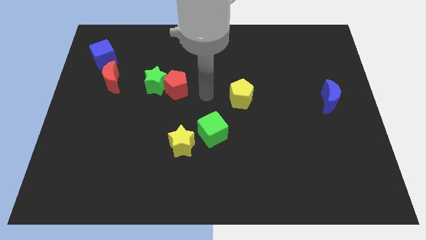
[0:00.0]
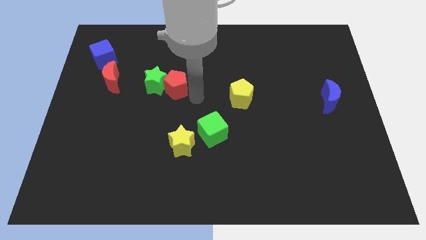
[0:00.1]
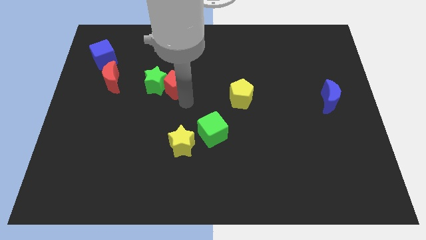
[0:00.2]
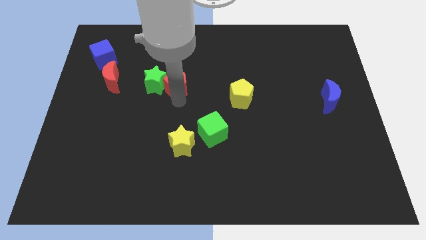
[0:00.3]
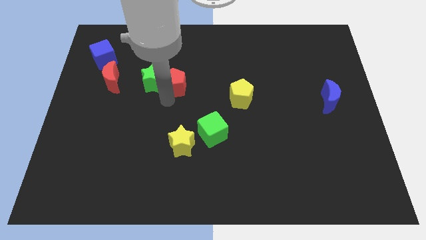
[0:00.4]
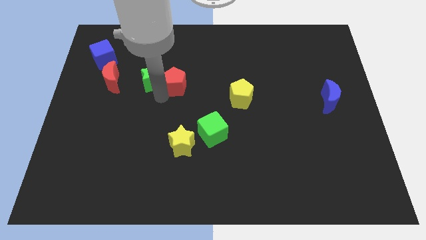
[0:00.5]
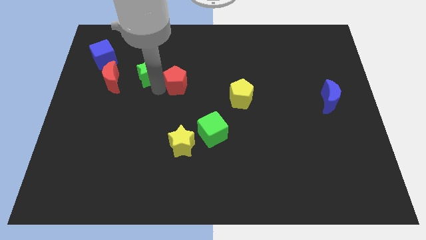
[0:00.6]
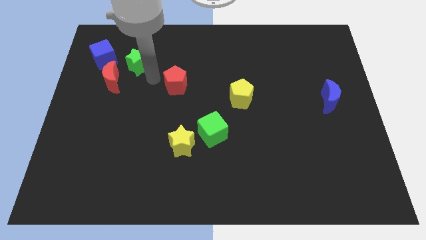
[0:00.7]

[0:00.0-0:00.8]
move the red pentagon away from the green star

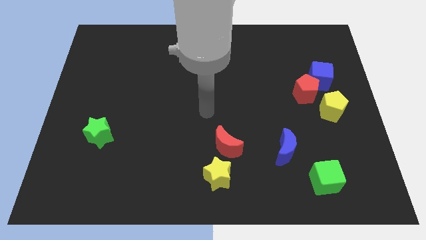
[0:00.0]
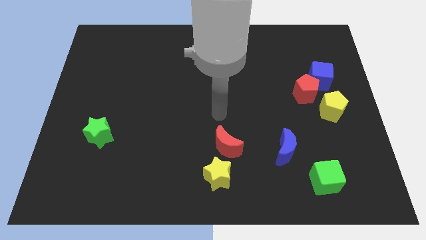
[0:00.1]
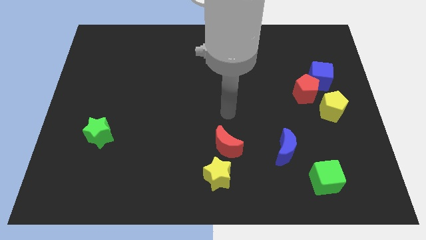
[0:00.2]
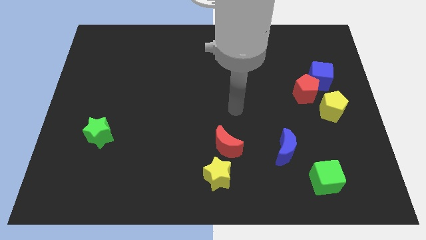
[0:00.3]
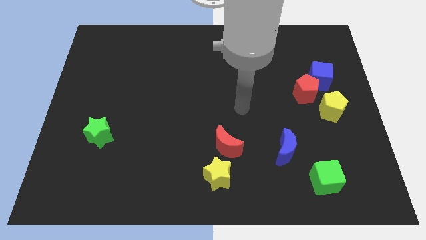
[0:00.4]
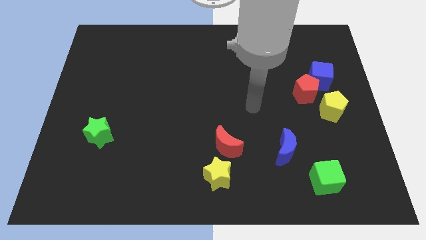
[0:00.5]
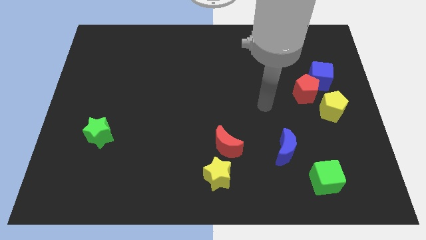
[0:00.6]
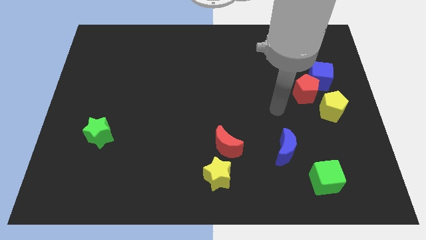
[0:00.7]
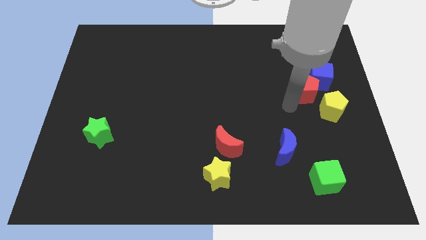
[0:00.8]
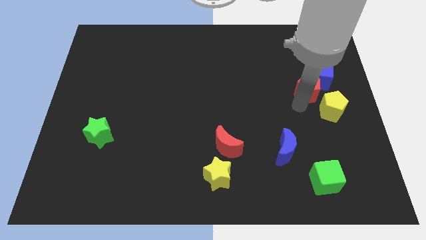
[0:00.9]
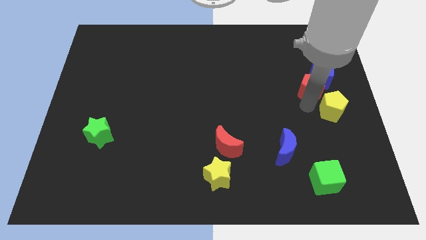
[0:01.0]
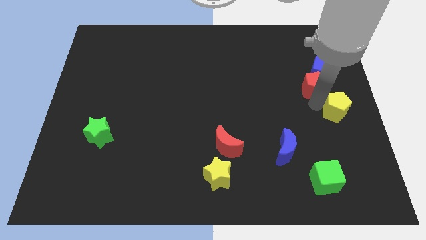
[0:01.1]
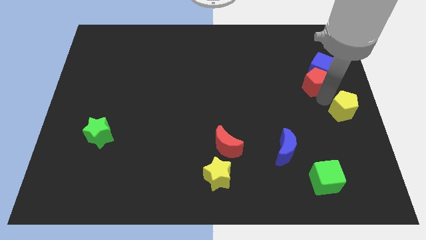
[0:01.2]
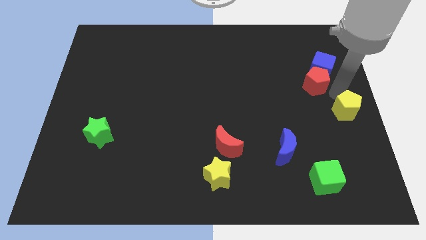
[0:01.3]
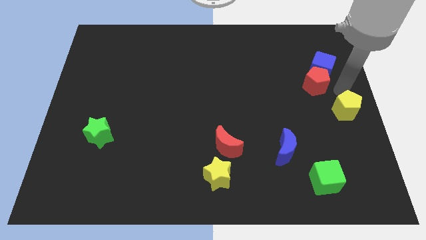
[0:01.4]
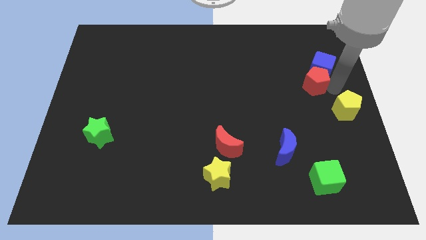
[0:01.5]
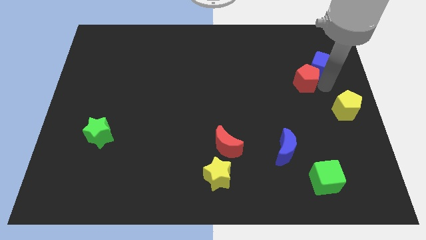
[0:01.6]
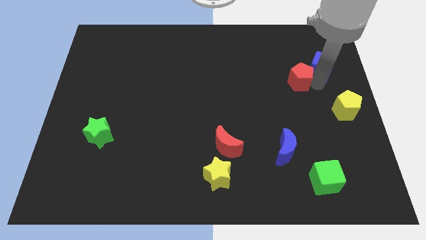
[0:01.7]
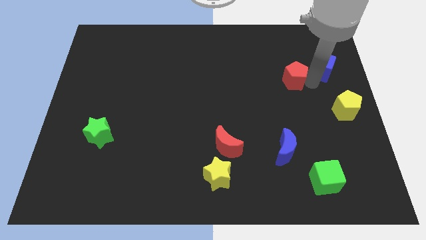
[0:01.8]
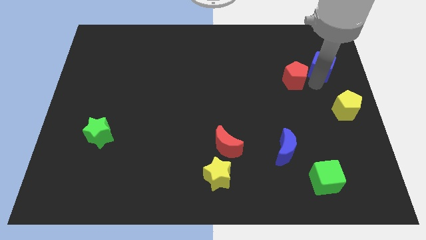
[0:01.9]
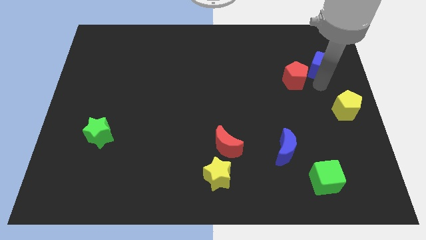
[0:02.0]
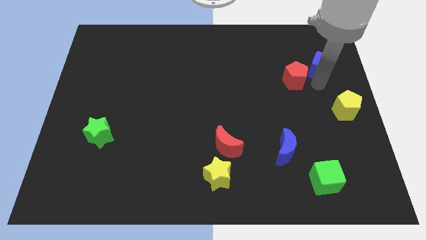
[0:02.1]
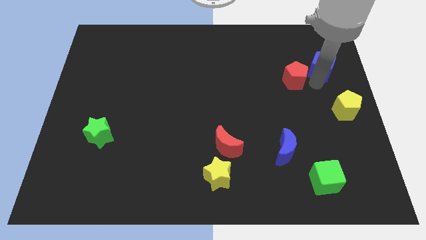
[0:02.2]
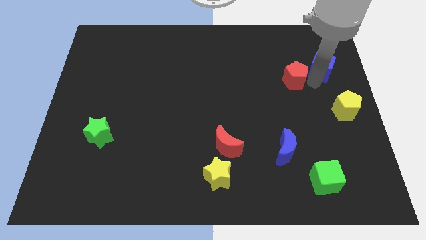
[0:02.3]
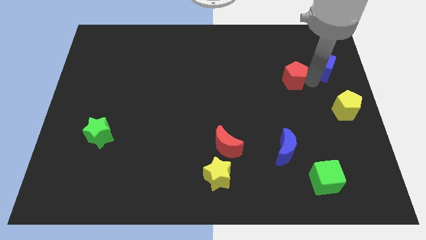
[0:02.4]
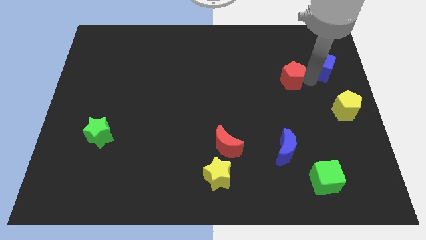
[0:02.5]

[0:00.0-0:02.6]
separate the red pentagon from the blue cube and yellow pentagon

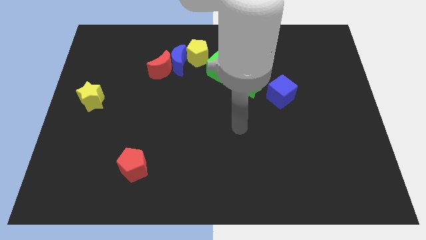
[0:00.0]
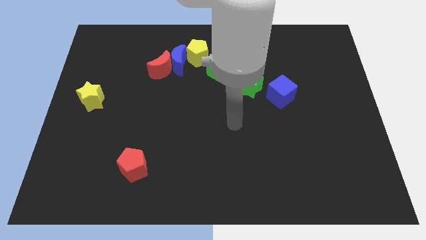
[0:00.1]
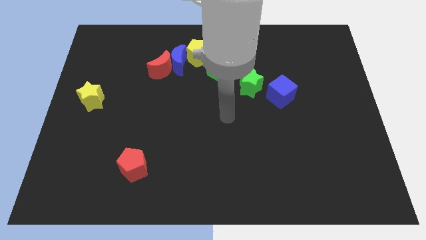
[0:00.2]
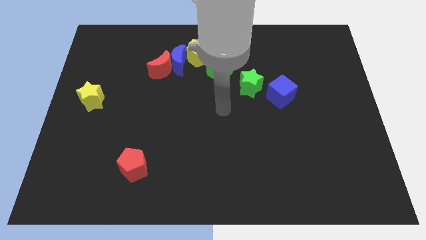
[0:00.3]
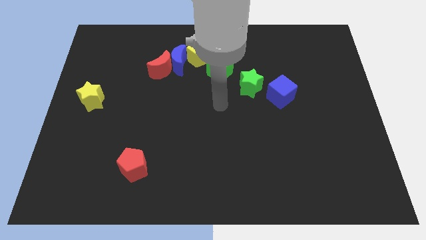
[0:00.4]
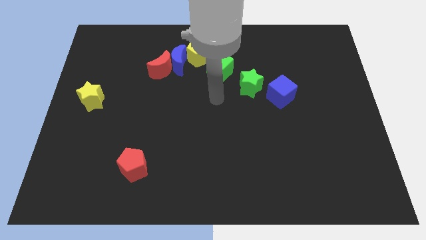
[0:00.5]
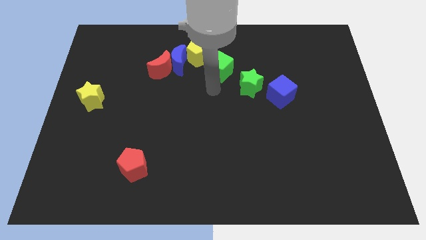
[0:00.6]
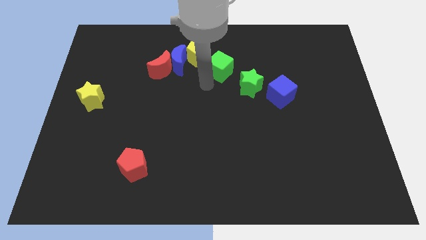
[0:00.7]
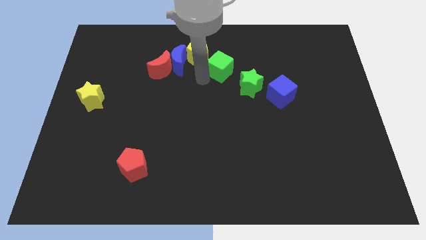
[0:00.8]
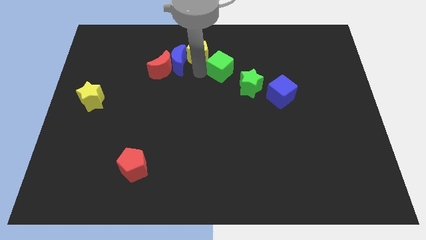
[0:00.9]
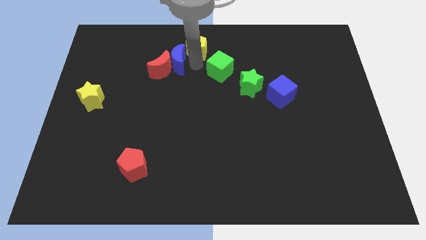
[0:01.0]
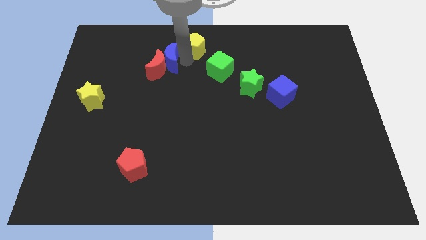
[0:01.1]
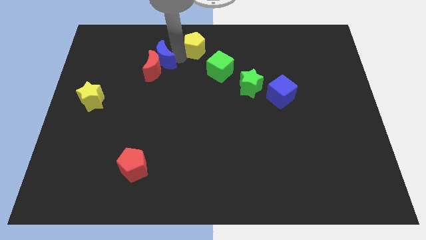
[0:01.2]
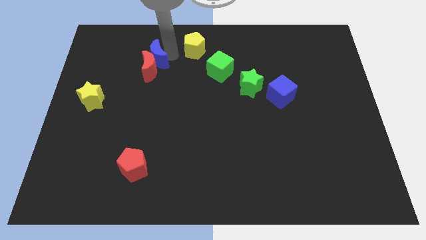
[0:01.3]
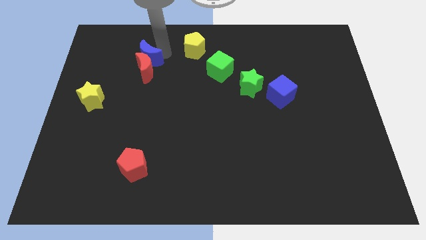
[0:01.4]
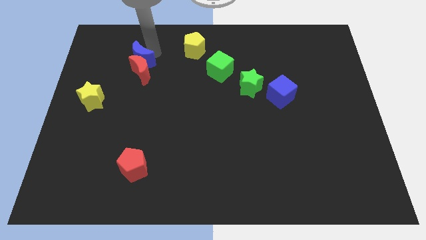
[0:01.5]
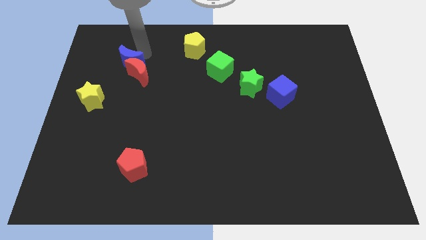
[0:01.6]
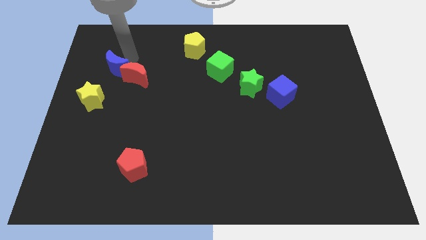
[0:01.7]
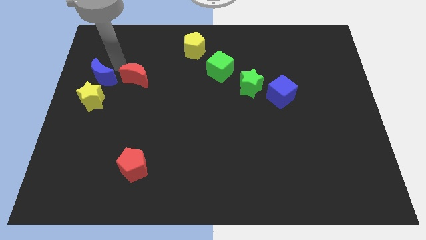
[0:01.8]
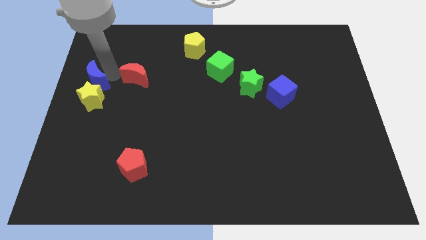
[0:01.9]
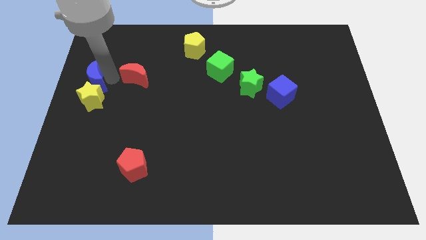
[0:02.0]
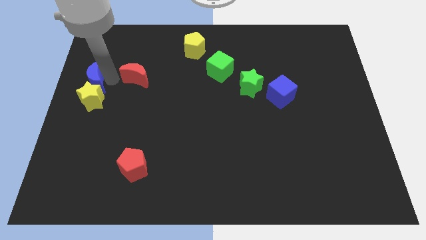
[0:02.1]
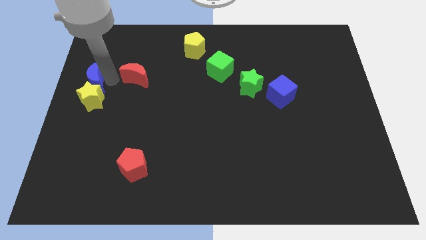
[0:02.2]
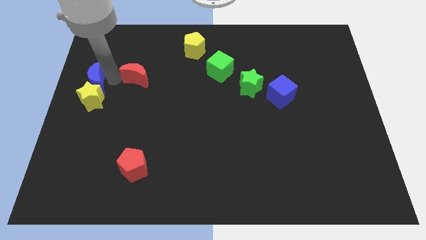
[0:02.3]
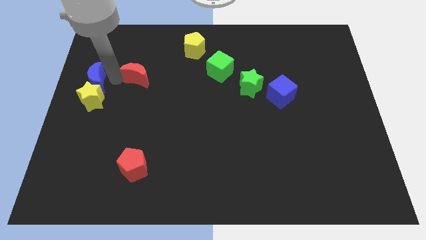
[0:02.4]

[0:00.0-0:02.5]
separate the red moon from the blue moon

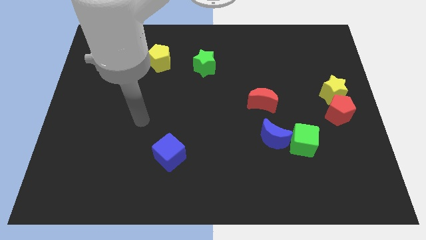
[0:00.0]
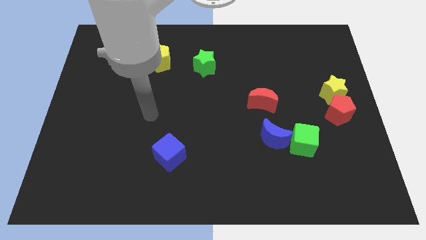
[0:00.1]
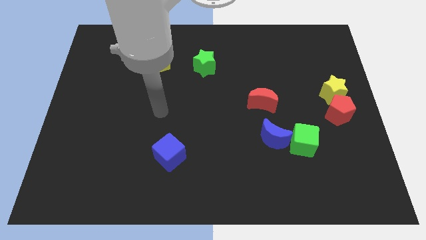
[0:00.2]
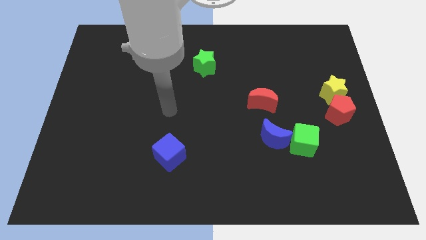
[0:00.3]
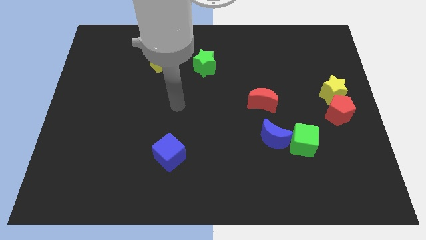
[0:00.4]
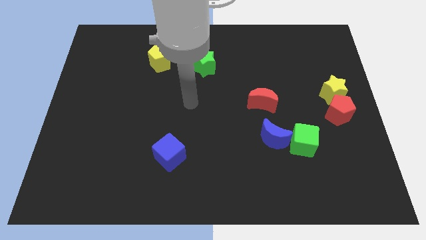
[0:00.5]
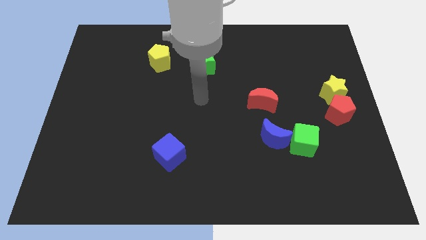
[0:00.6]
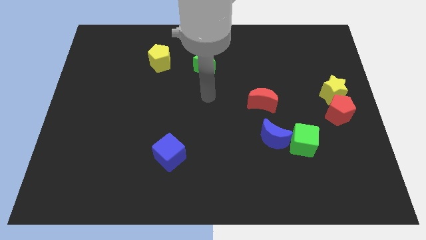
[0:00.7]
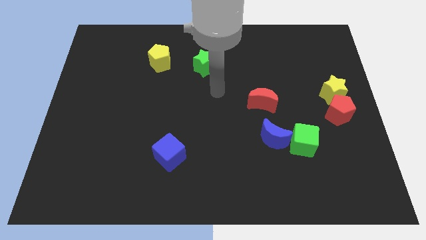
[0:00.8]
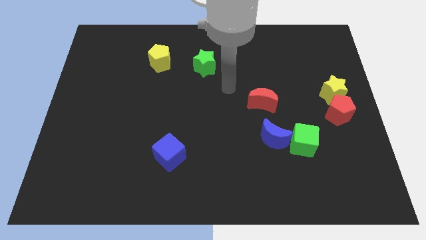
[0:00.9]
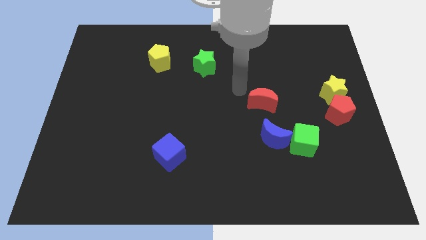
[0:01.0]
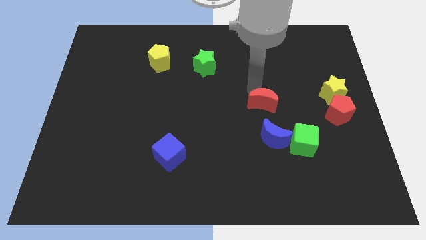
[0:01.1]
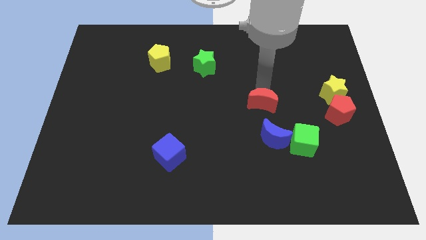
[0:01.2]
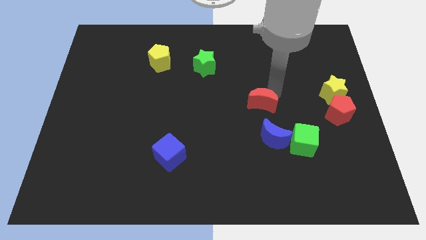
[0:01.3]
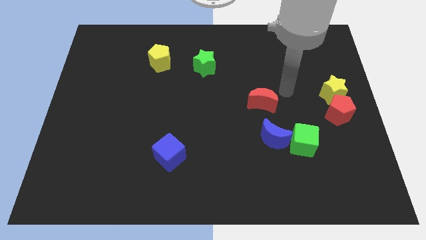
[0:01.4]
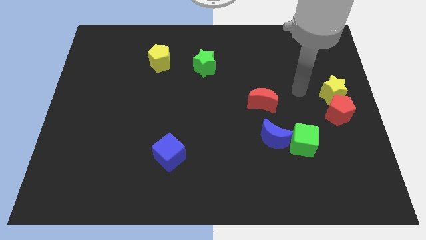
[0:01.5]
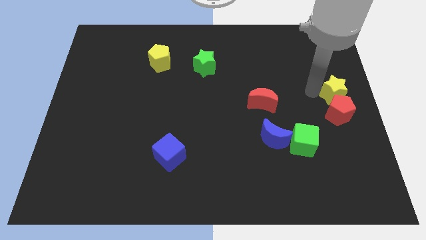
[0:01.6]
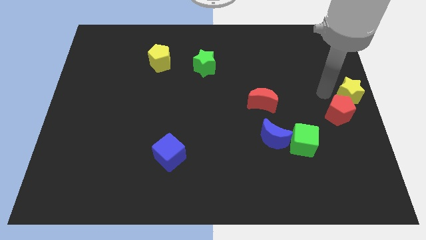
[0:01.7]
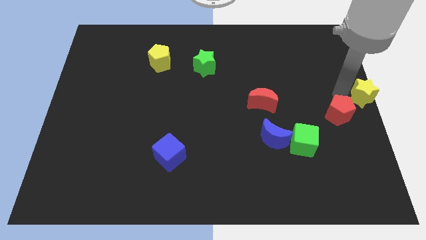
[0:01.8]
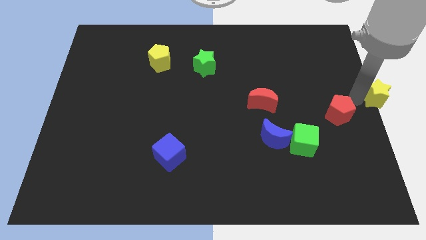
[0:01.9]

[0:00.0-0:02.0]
move the red pentagon away from the yellow star

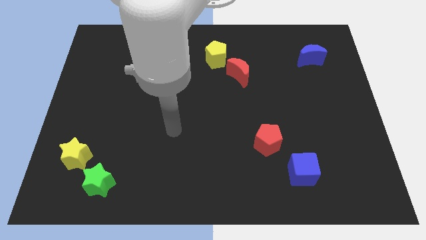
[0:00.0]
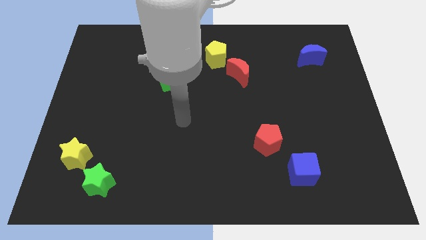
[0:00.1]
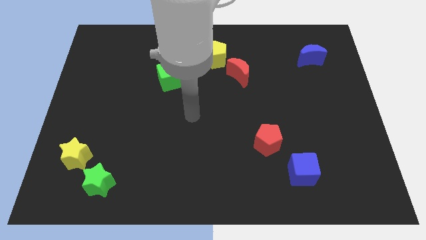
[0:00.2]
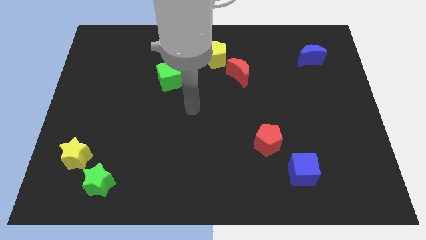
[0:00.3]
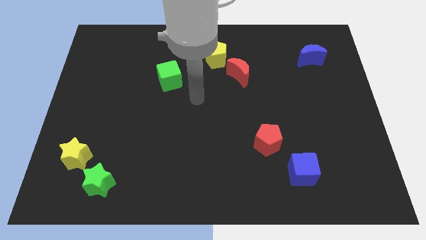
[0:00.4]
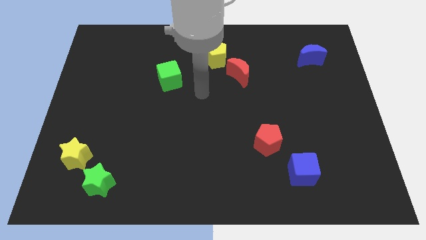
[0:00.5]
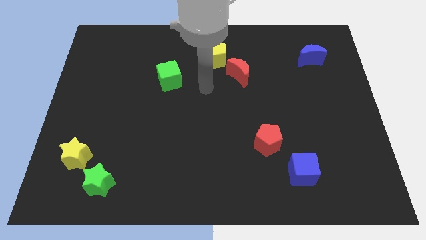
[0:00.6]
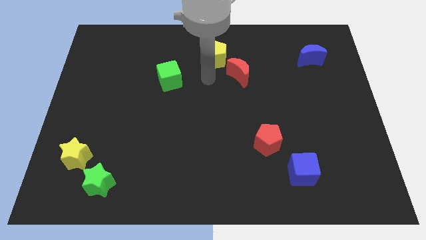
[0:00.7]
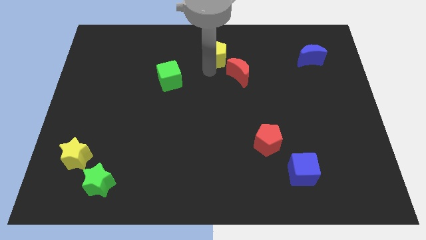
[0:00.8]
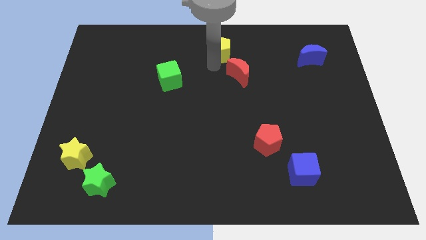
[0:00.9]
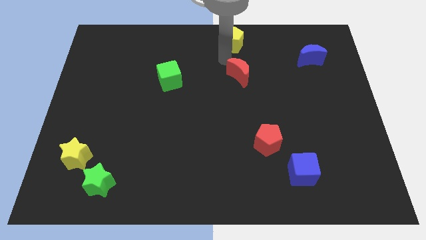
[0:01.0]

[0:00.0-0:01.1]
separate the red moon from the yellow pentagon

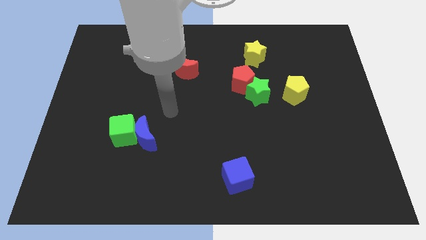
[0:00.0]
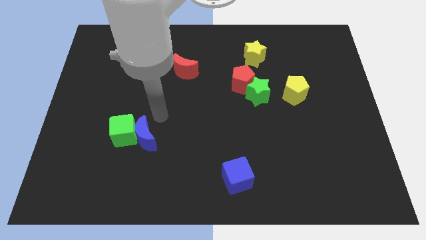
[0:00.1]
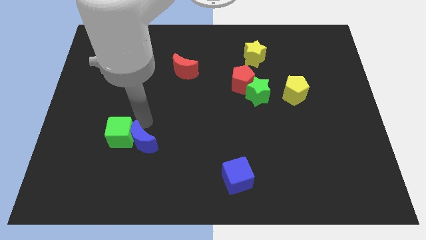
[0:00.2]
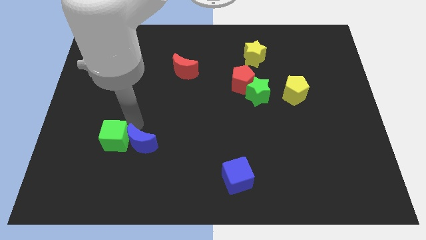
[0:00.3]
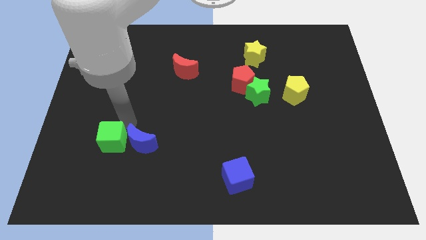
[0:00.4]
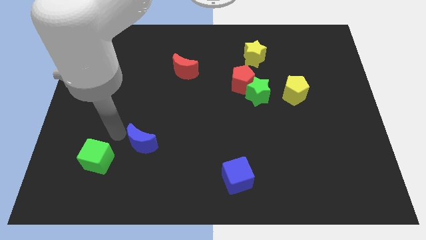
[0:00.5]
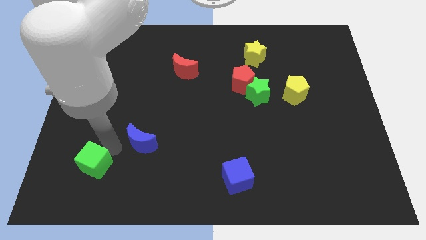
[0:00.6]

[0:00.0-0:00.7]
move the blue moon away from the green cube
